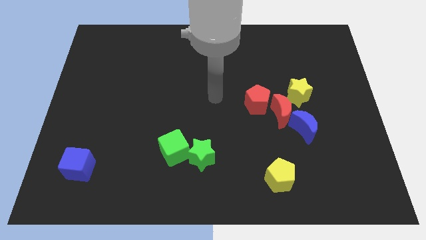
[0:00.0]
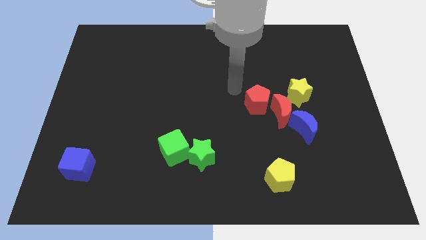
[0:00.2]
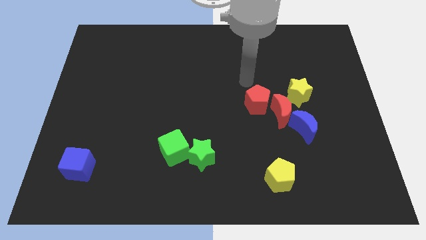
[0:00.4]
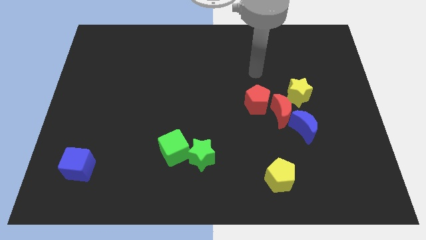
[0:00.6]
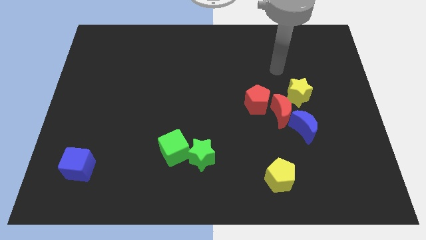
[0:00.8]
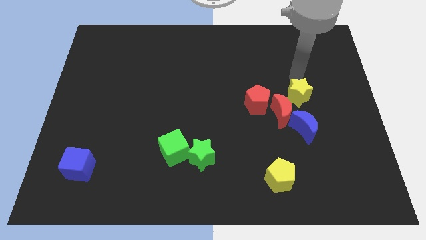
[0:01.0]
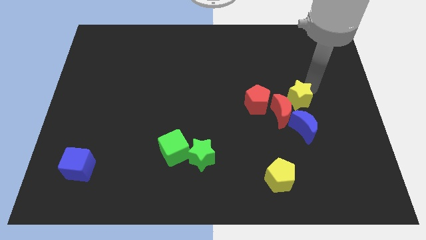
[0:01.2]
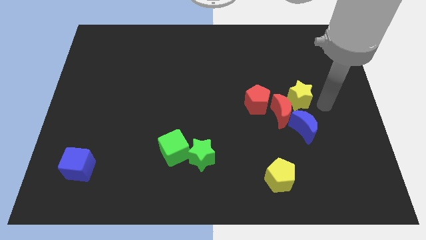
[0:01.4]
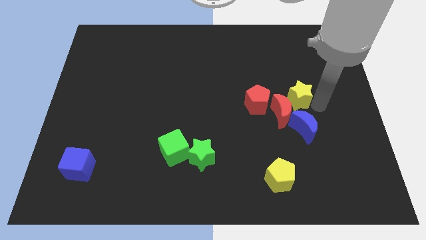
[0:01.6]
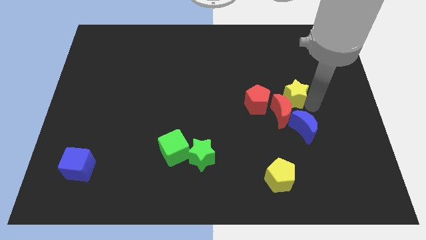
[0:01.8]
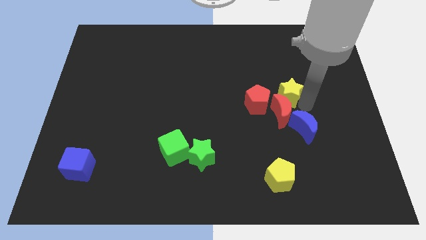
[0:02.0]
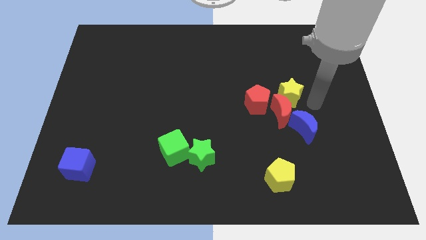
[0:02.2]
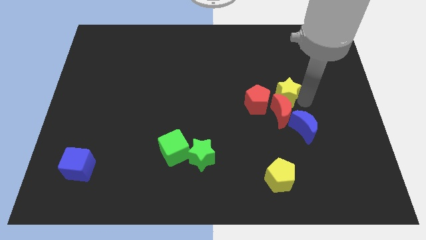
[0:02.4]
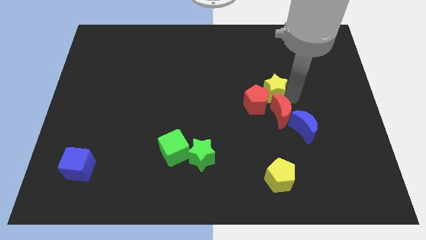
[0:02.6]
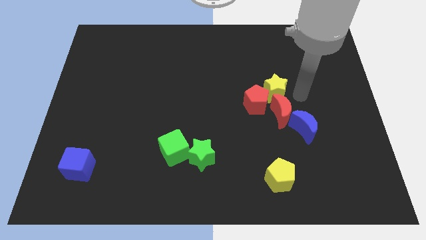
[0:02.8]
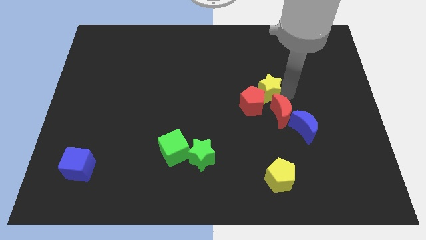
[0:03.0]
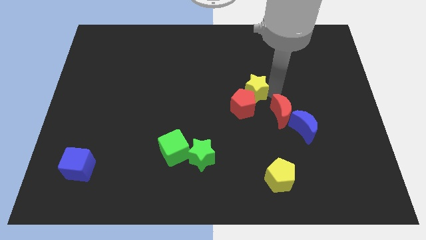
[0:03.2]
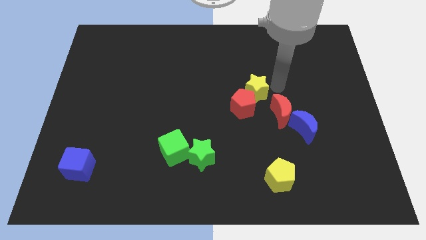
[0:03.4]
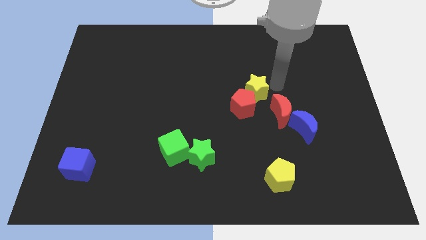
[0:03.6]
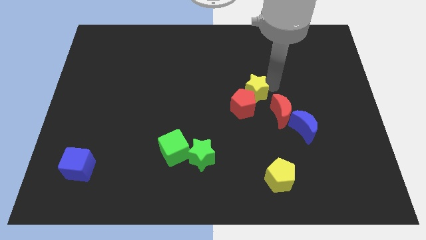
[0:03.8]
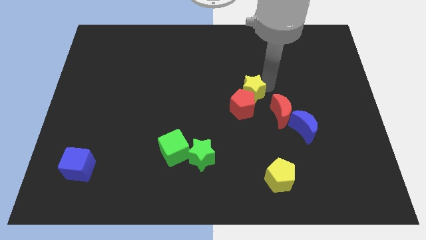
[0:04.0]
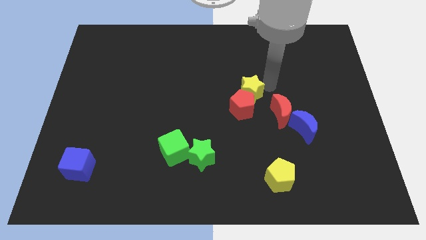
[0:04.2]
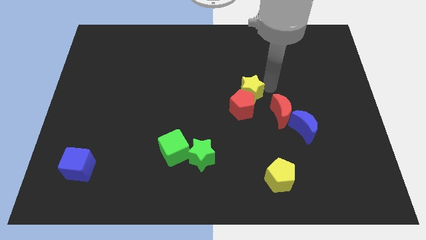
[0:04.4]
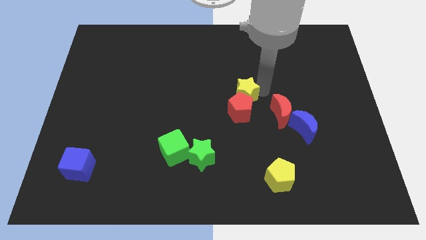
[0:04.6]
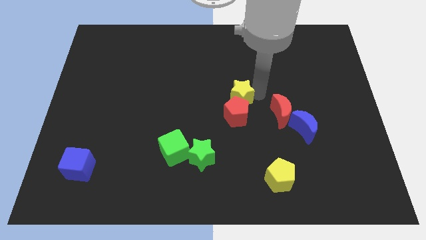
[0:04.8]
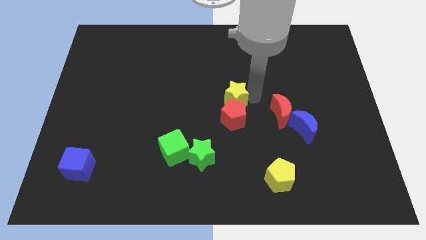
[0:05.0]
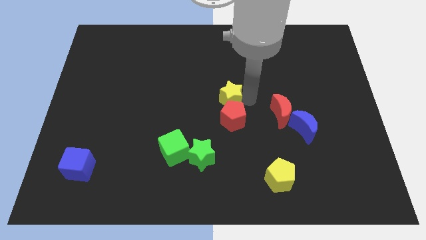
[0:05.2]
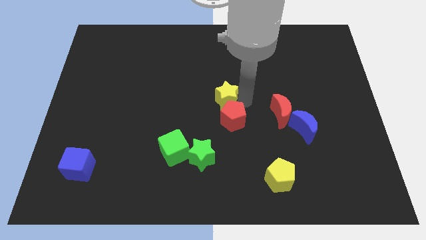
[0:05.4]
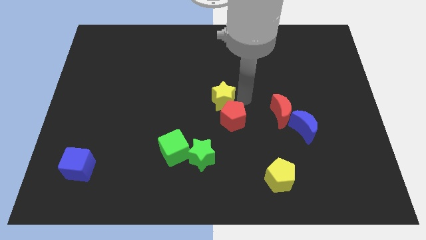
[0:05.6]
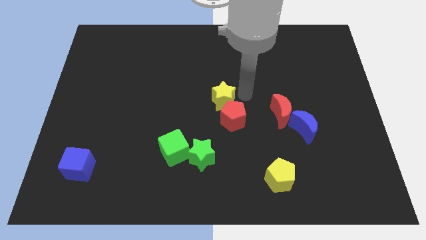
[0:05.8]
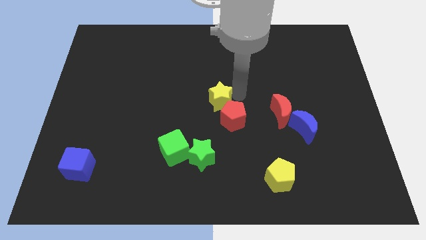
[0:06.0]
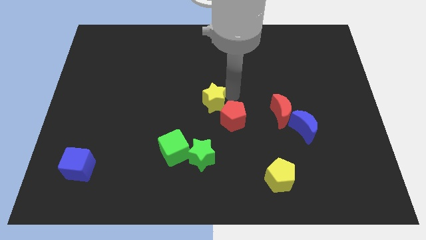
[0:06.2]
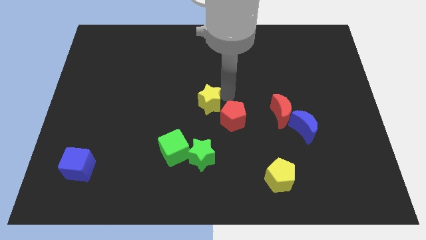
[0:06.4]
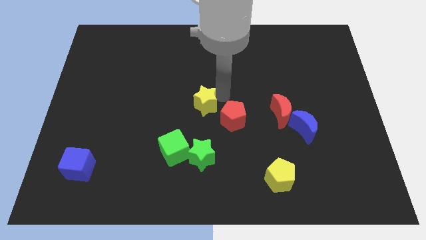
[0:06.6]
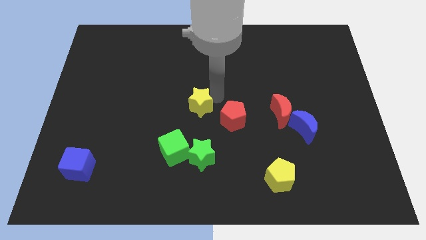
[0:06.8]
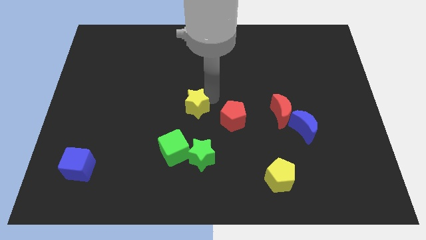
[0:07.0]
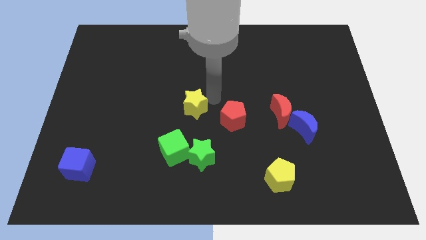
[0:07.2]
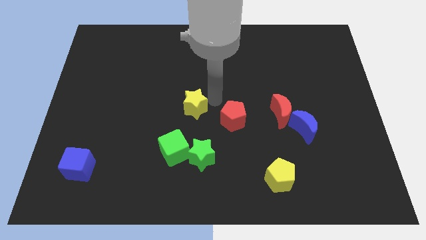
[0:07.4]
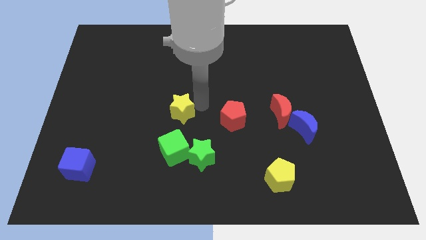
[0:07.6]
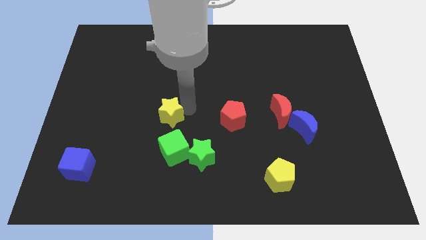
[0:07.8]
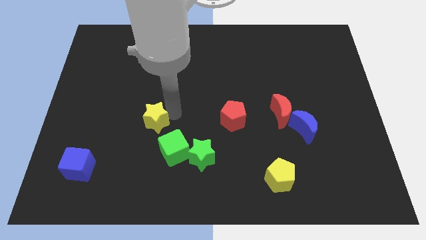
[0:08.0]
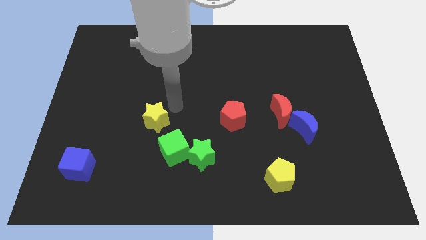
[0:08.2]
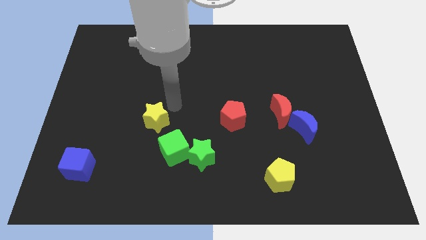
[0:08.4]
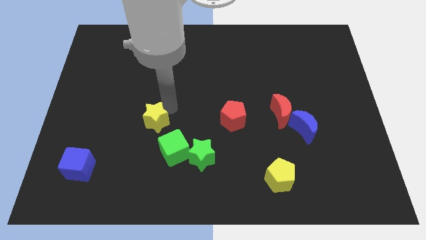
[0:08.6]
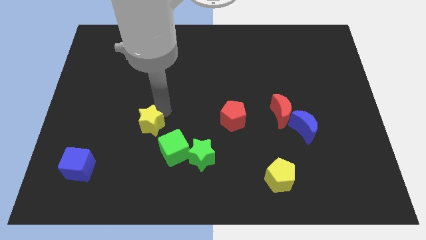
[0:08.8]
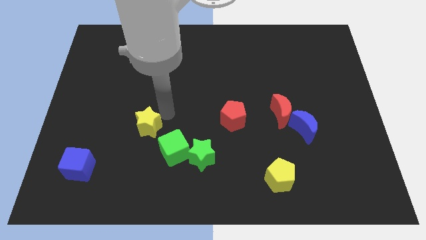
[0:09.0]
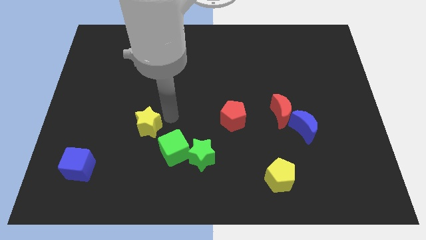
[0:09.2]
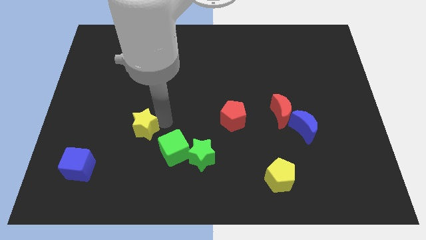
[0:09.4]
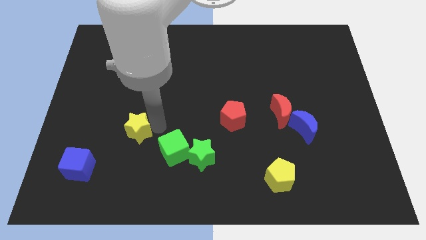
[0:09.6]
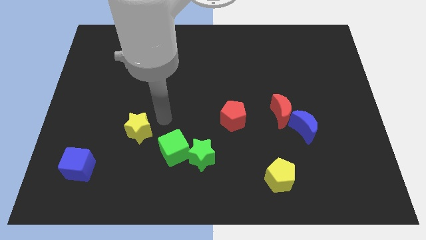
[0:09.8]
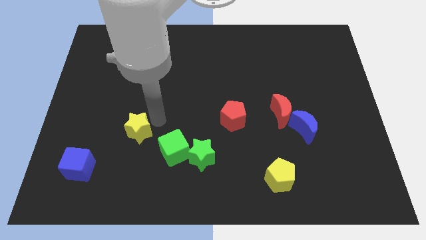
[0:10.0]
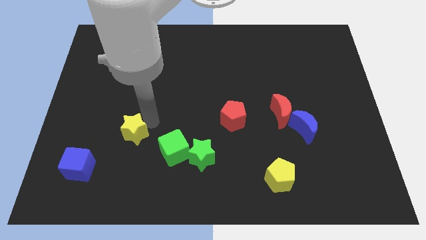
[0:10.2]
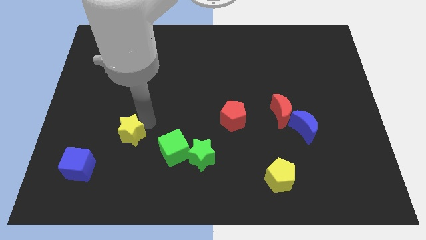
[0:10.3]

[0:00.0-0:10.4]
push the yellow star to the top right of the blue cube

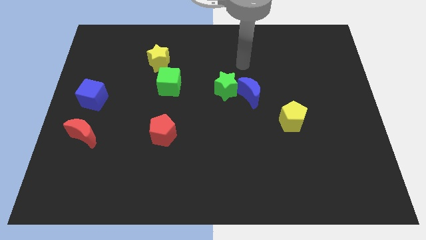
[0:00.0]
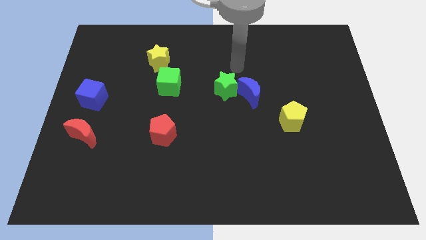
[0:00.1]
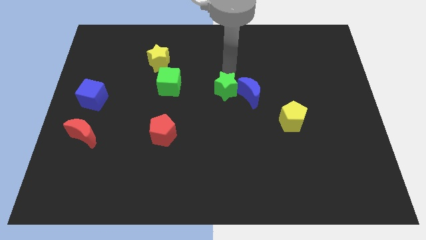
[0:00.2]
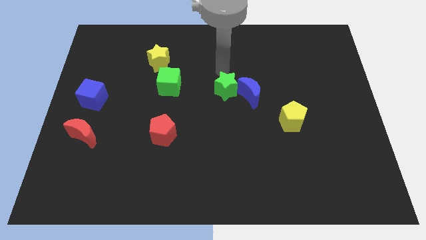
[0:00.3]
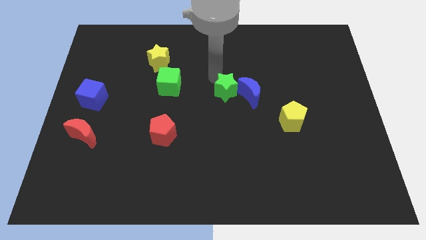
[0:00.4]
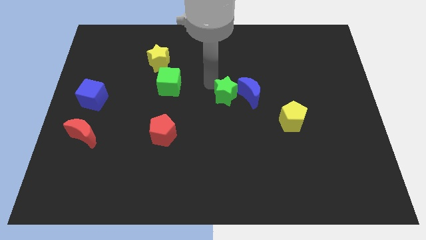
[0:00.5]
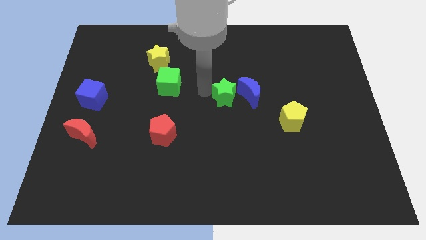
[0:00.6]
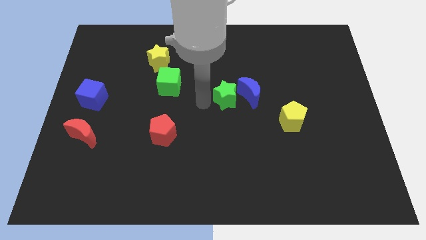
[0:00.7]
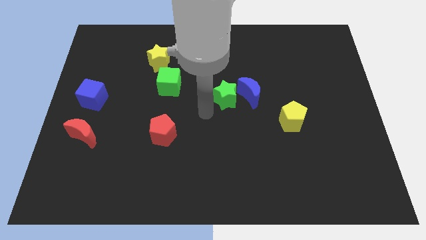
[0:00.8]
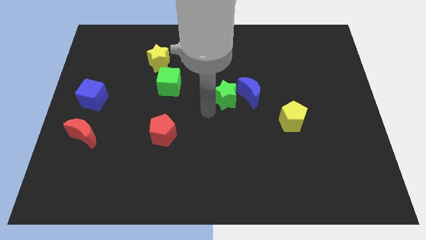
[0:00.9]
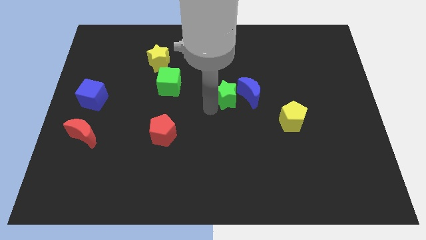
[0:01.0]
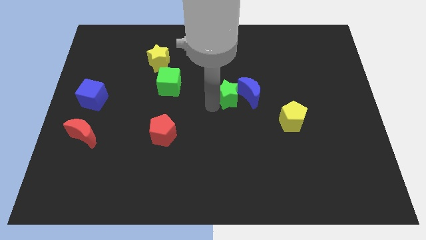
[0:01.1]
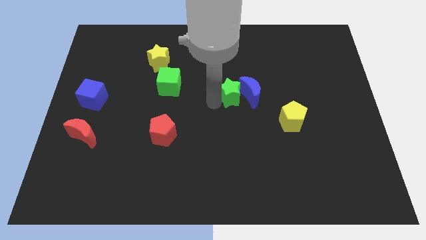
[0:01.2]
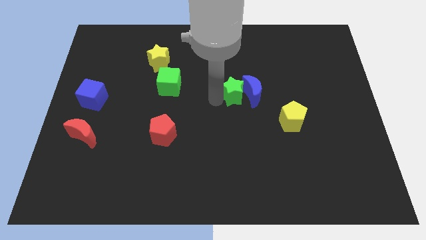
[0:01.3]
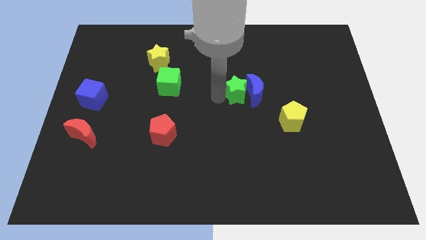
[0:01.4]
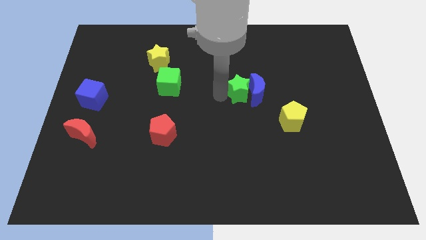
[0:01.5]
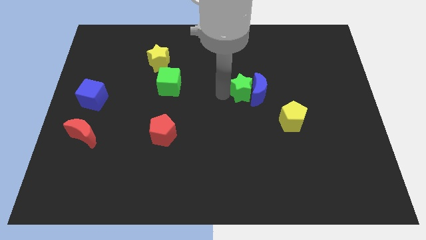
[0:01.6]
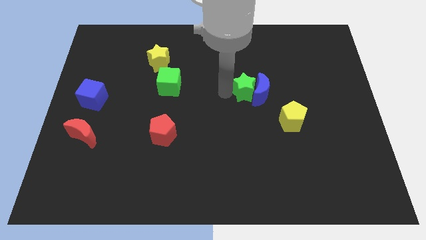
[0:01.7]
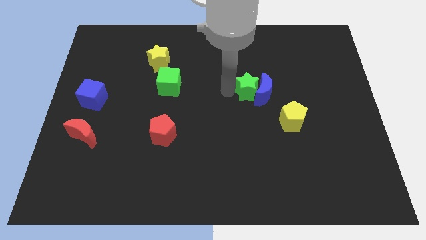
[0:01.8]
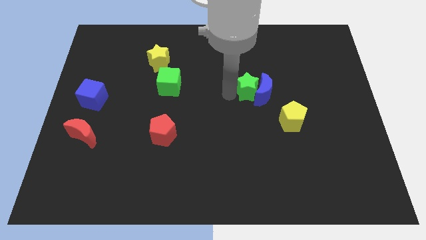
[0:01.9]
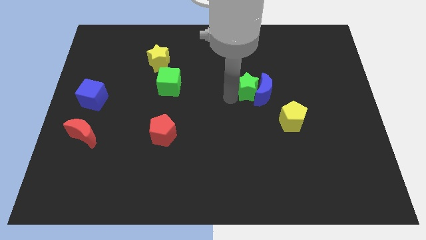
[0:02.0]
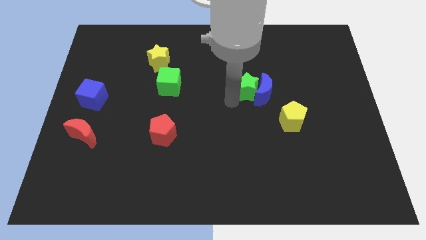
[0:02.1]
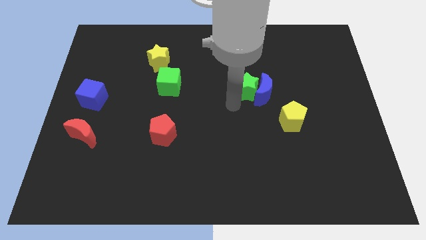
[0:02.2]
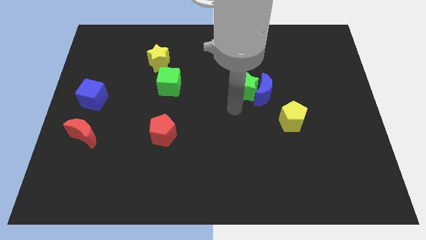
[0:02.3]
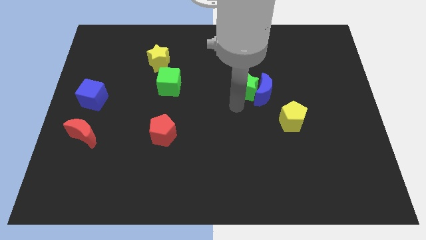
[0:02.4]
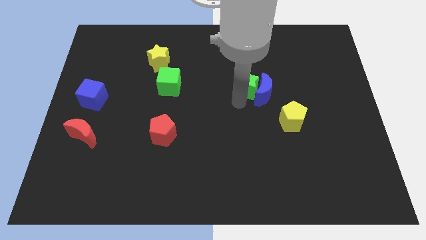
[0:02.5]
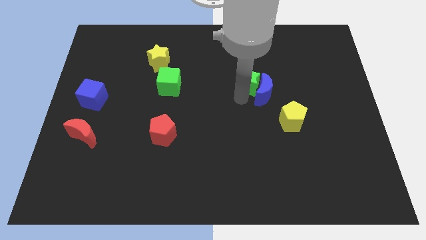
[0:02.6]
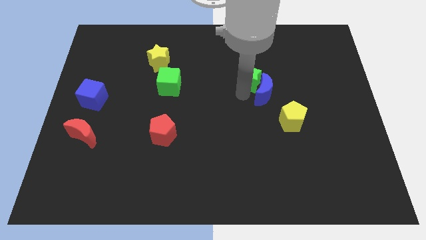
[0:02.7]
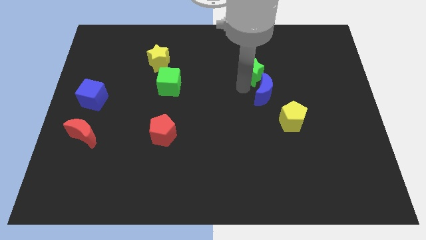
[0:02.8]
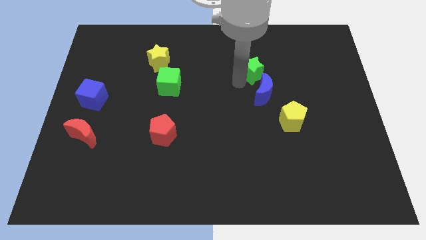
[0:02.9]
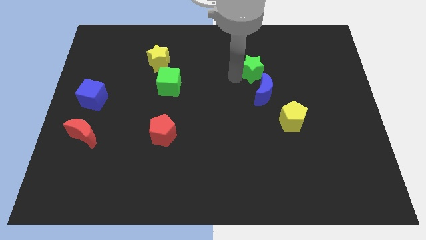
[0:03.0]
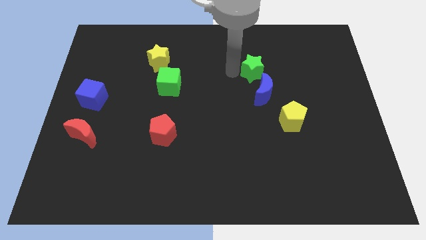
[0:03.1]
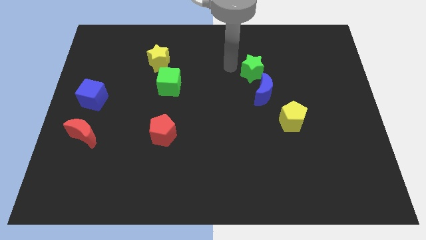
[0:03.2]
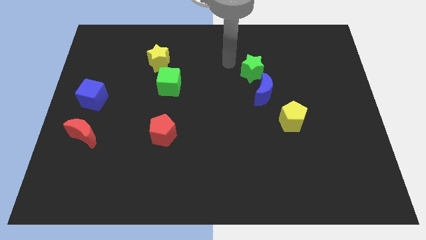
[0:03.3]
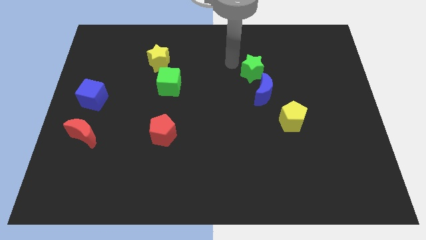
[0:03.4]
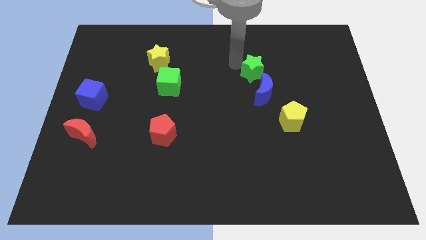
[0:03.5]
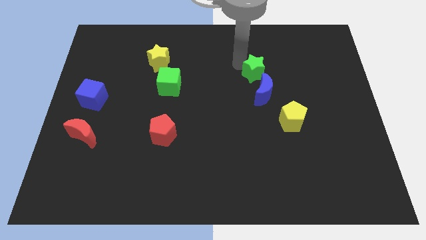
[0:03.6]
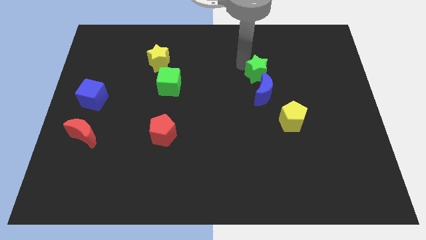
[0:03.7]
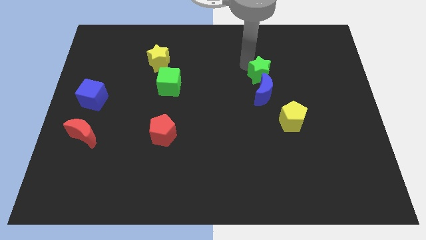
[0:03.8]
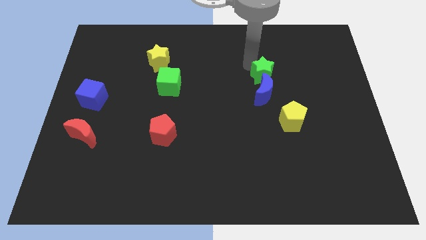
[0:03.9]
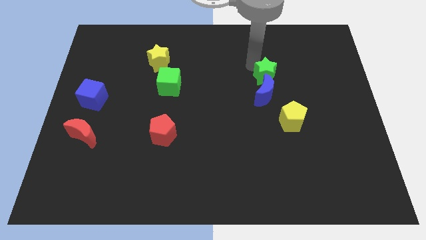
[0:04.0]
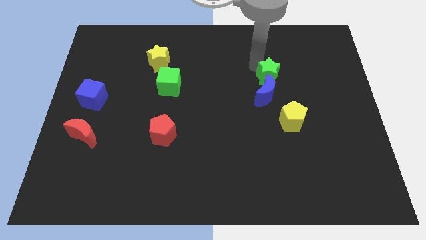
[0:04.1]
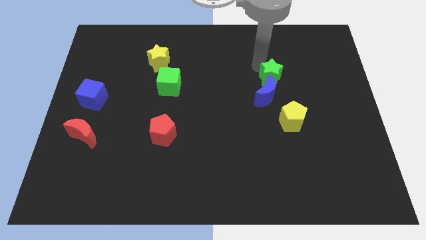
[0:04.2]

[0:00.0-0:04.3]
push the green star to the top of the yellow pentagon
